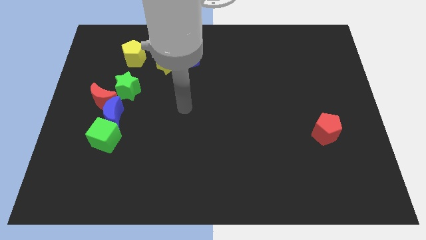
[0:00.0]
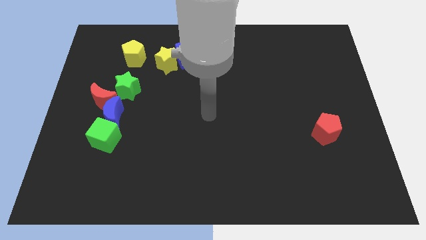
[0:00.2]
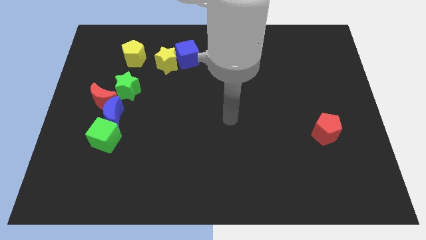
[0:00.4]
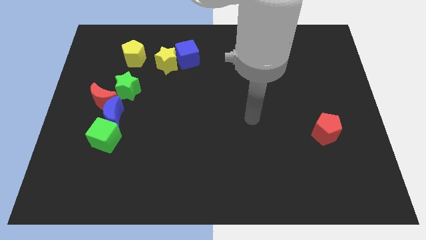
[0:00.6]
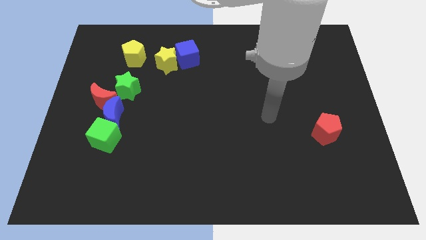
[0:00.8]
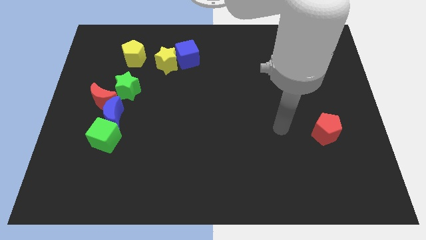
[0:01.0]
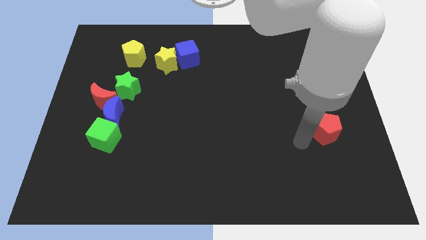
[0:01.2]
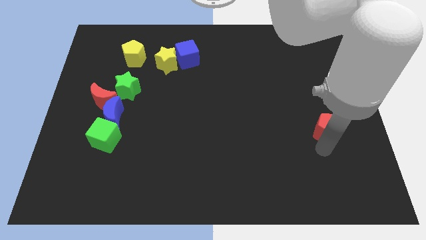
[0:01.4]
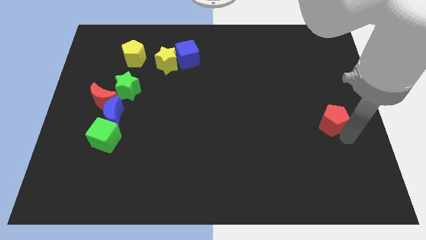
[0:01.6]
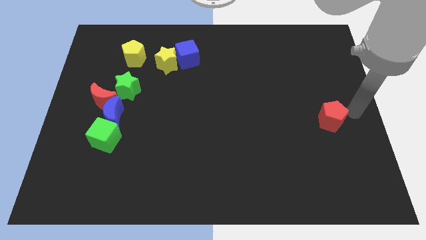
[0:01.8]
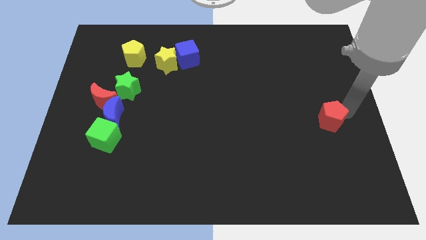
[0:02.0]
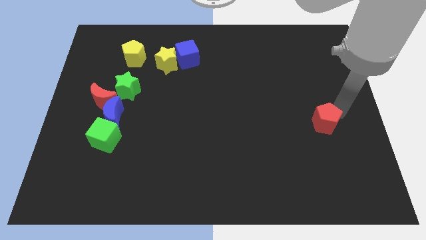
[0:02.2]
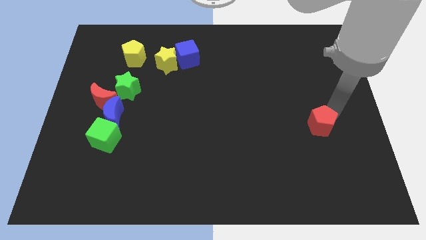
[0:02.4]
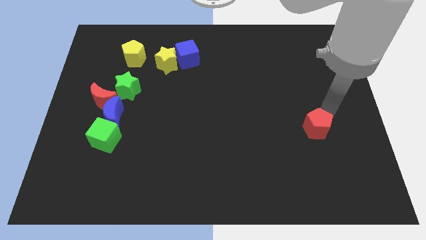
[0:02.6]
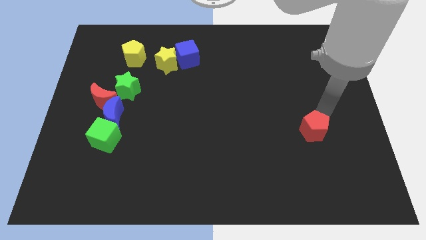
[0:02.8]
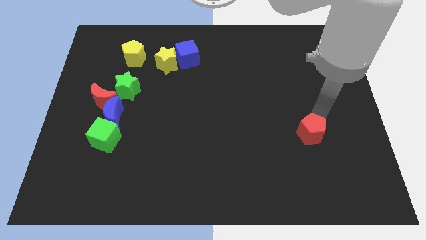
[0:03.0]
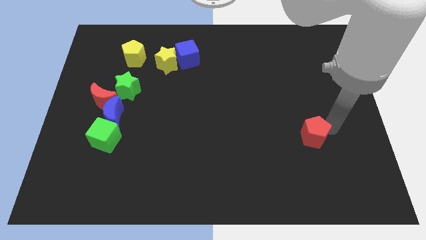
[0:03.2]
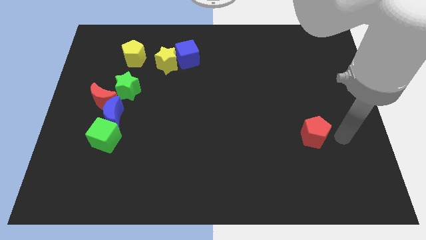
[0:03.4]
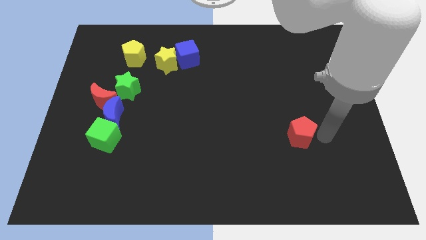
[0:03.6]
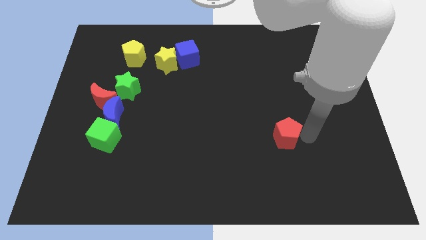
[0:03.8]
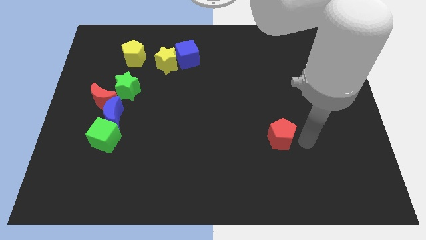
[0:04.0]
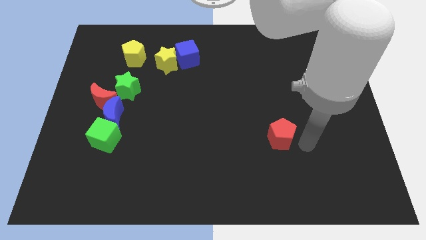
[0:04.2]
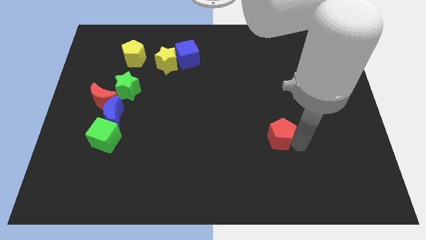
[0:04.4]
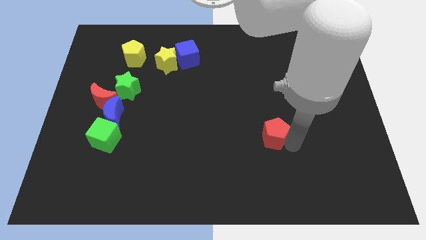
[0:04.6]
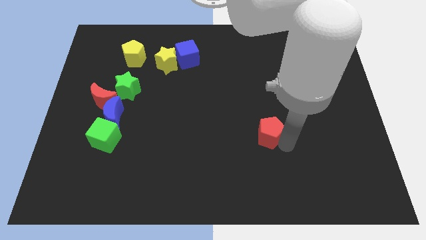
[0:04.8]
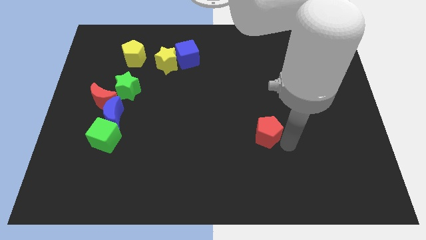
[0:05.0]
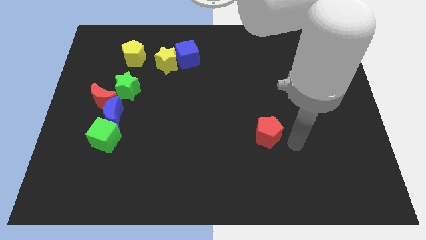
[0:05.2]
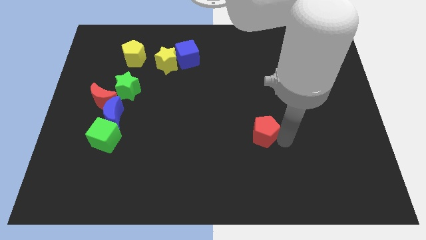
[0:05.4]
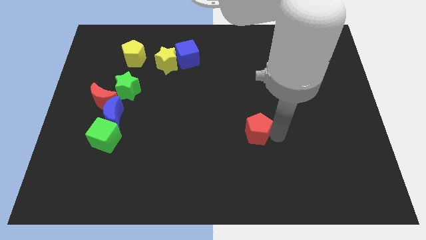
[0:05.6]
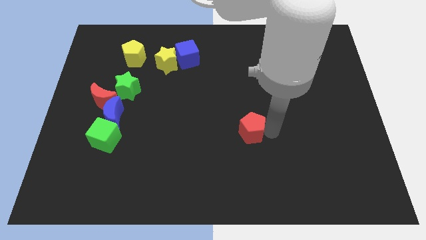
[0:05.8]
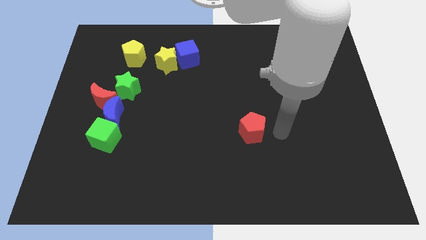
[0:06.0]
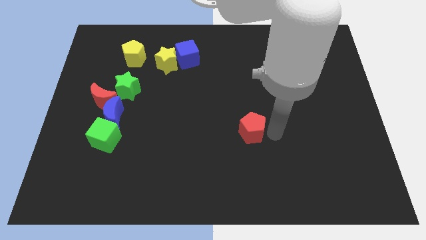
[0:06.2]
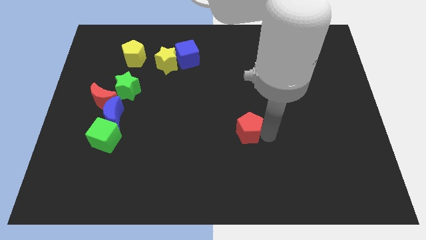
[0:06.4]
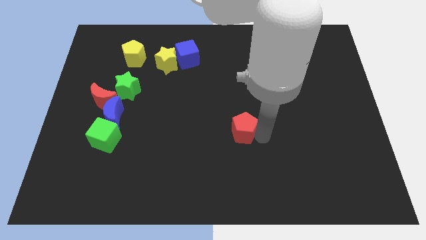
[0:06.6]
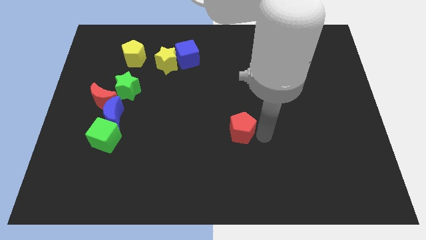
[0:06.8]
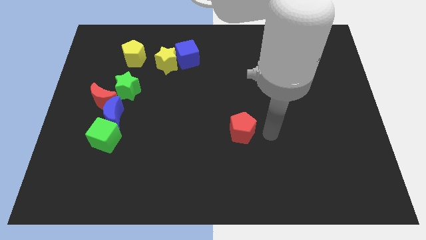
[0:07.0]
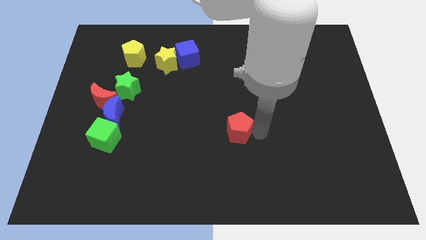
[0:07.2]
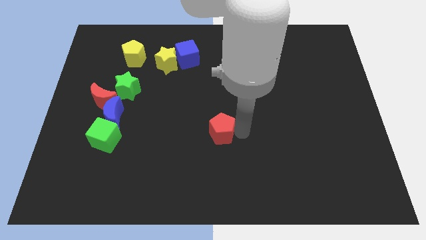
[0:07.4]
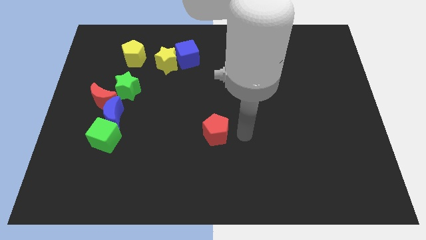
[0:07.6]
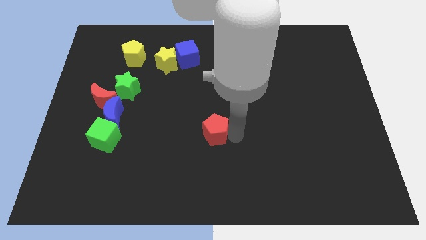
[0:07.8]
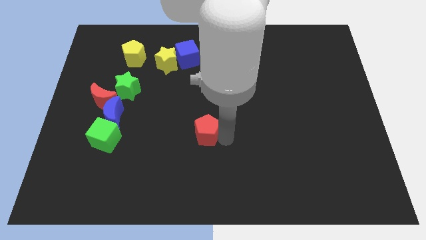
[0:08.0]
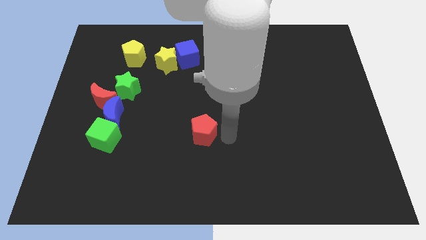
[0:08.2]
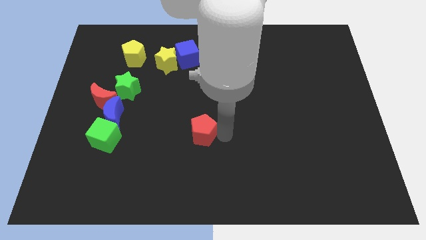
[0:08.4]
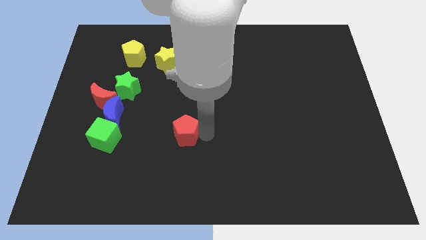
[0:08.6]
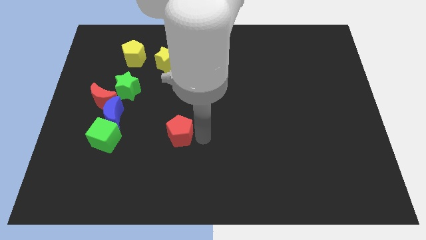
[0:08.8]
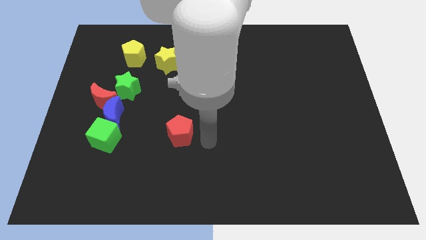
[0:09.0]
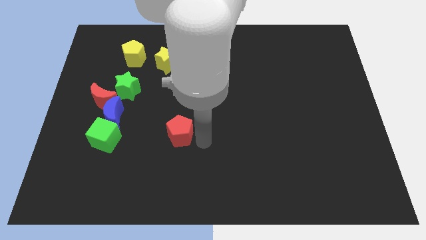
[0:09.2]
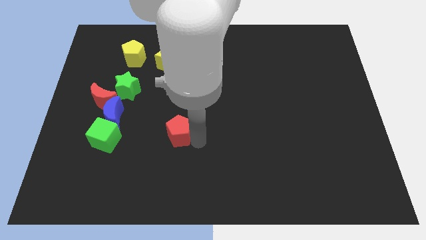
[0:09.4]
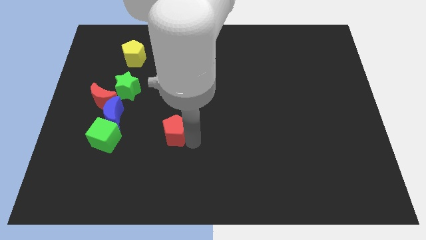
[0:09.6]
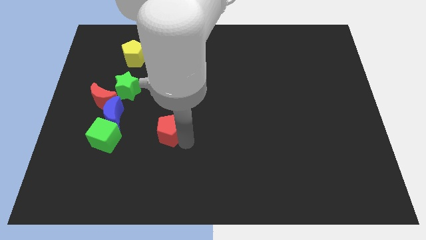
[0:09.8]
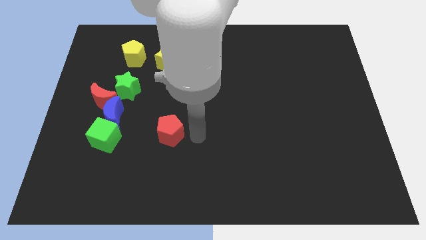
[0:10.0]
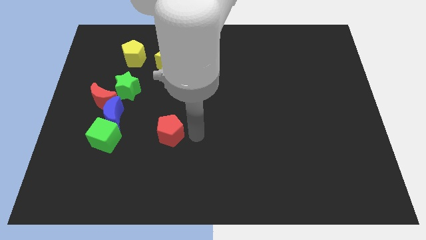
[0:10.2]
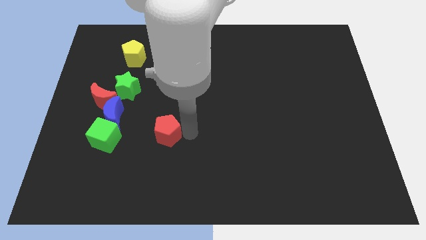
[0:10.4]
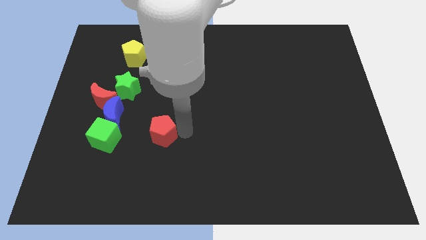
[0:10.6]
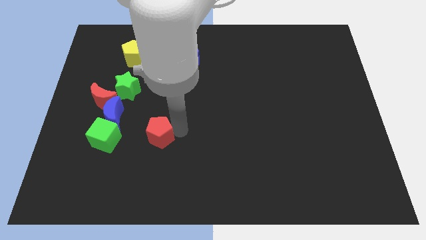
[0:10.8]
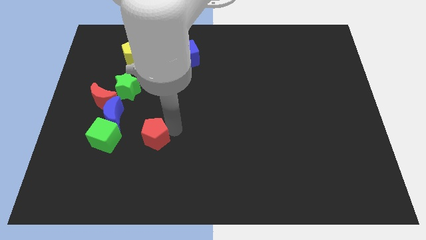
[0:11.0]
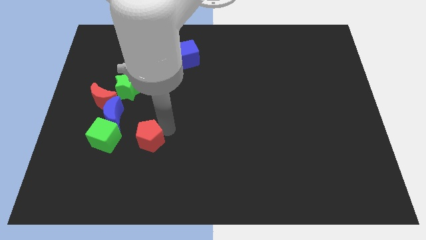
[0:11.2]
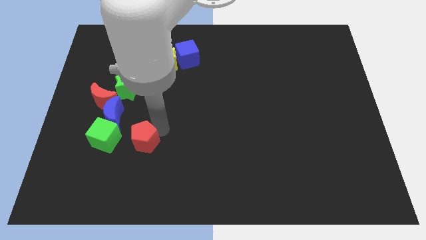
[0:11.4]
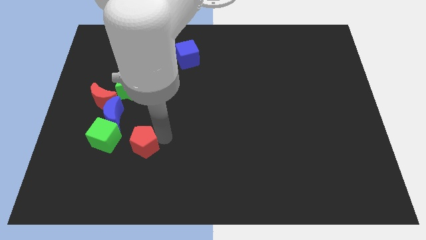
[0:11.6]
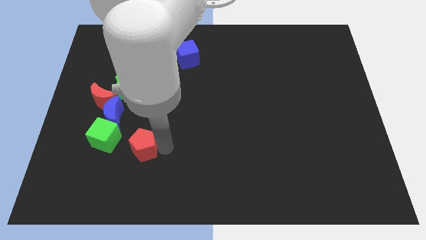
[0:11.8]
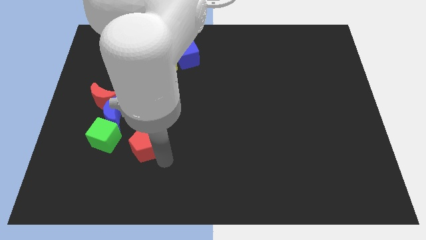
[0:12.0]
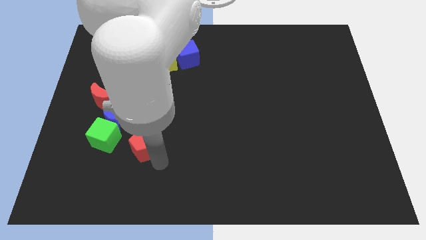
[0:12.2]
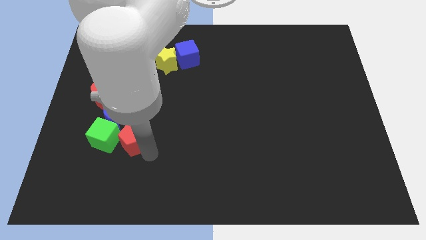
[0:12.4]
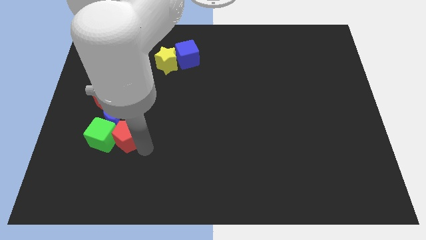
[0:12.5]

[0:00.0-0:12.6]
put the red pentagon to the green cube

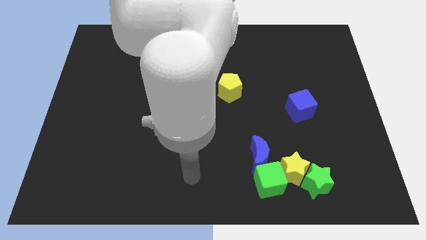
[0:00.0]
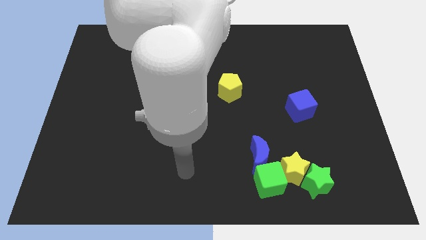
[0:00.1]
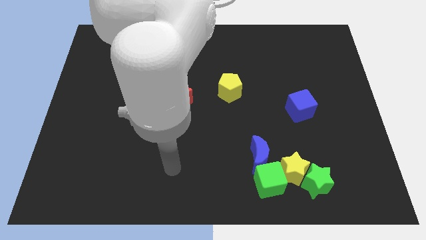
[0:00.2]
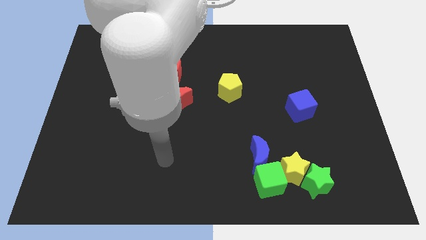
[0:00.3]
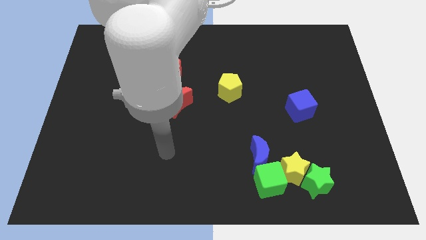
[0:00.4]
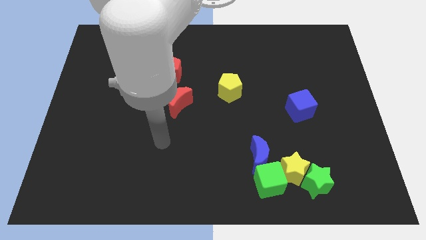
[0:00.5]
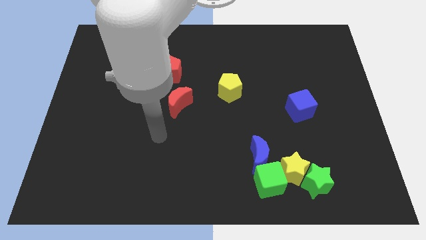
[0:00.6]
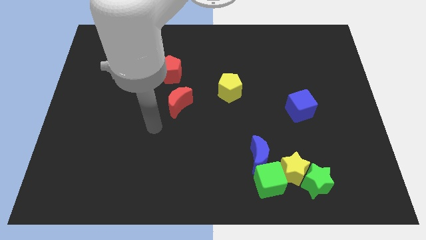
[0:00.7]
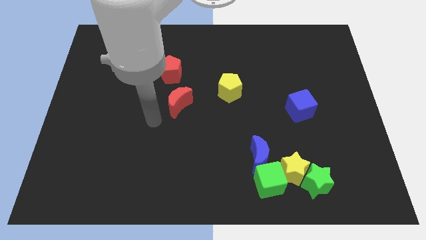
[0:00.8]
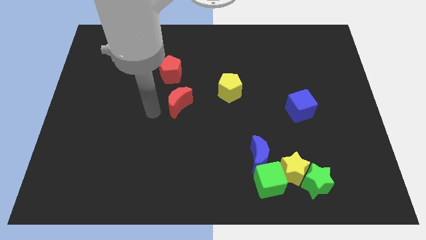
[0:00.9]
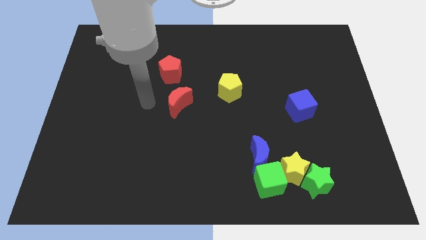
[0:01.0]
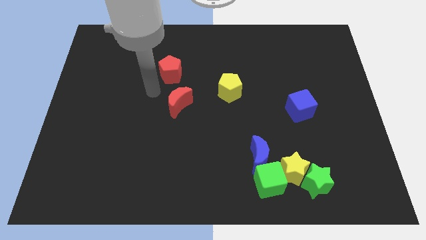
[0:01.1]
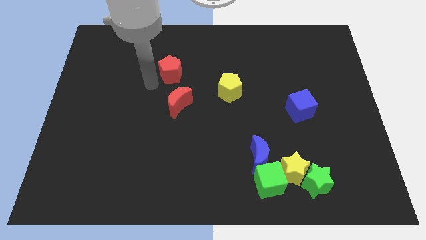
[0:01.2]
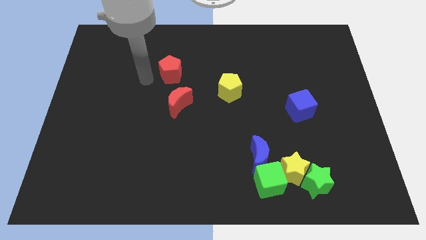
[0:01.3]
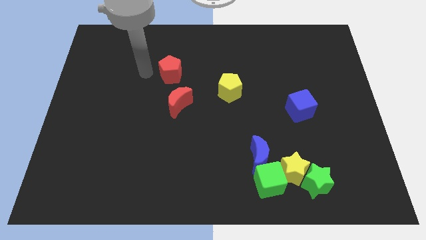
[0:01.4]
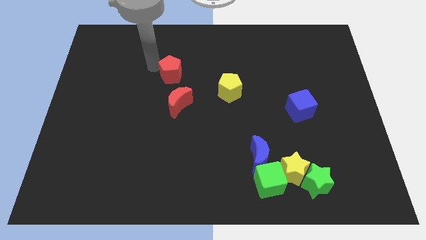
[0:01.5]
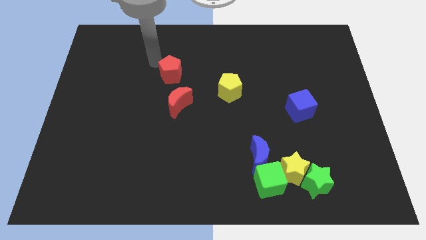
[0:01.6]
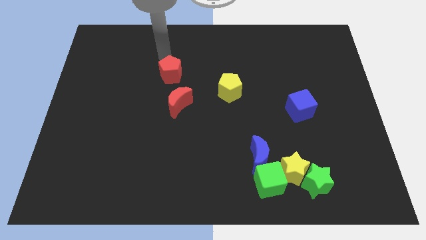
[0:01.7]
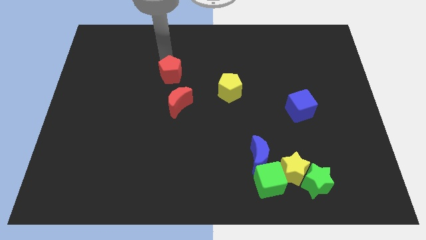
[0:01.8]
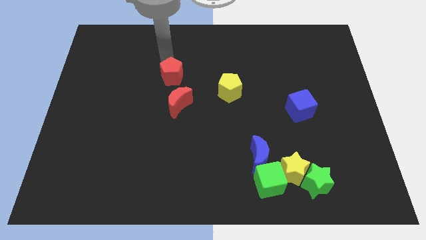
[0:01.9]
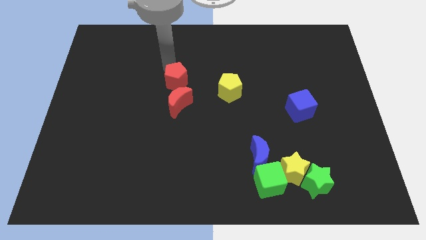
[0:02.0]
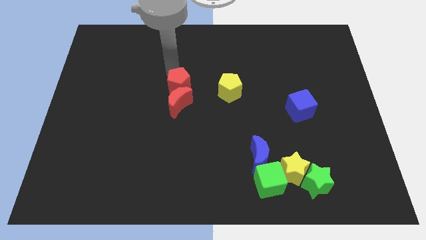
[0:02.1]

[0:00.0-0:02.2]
put the red pentagon to the red moon
